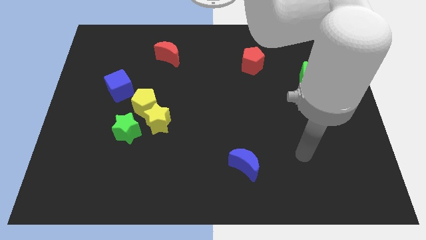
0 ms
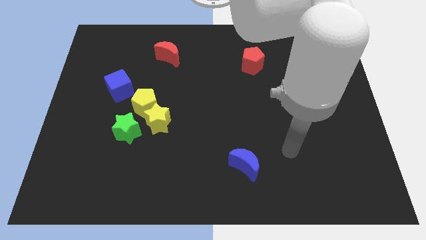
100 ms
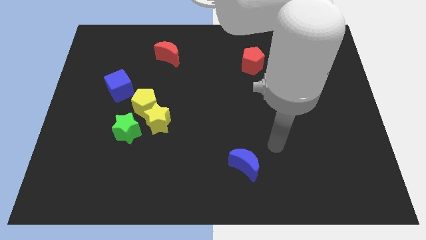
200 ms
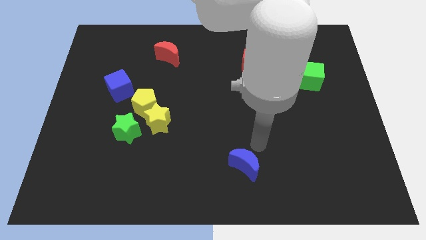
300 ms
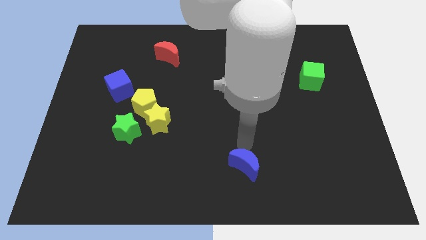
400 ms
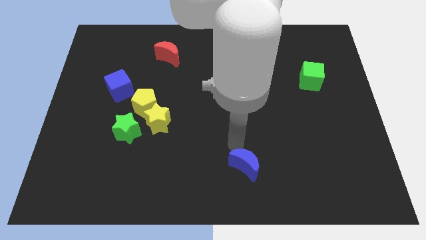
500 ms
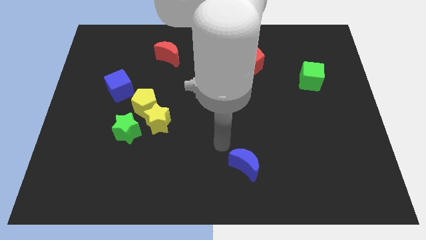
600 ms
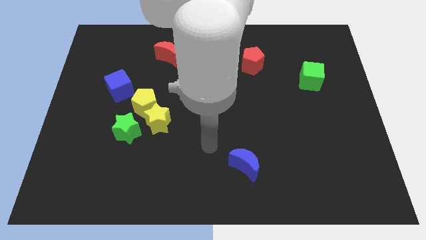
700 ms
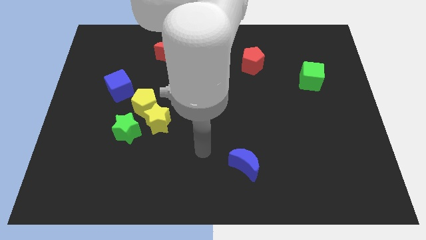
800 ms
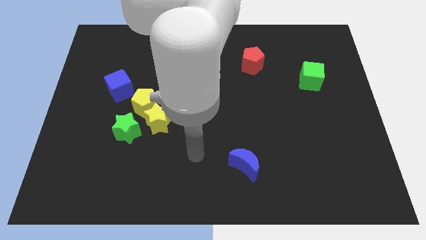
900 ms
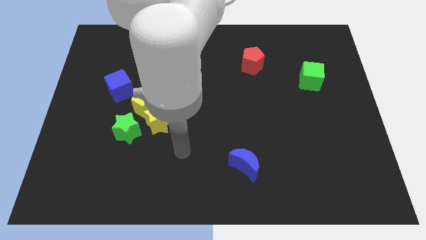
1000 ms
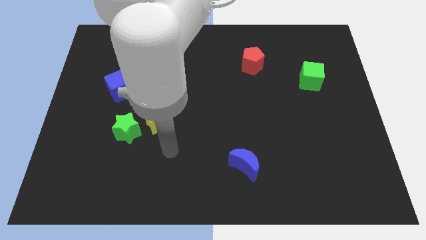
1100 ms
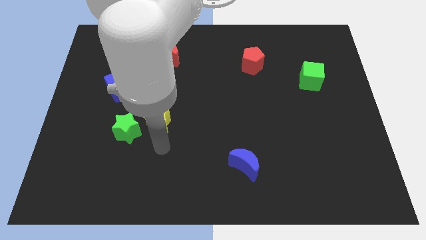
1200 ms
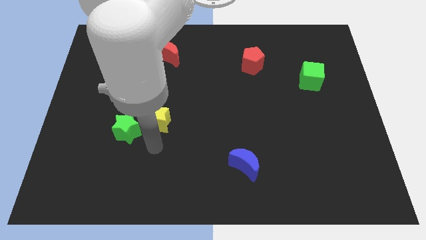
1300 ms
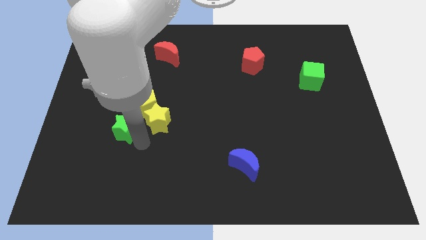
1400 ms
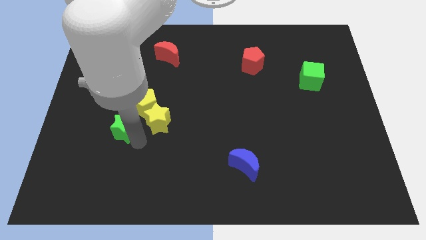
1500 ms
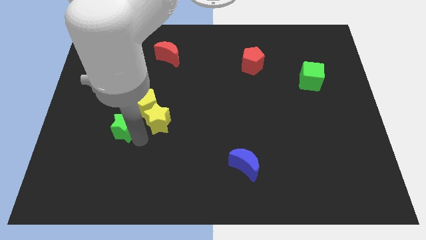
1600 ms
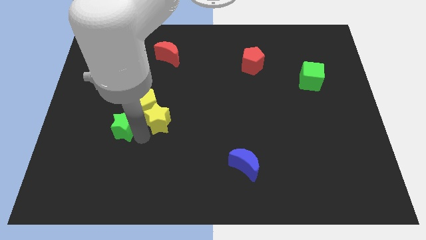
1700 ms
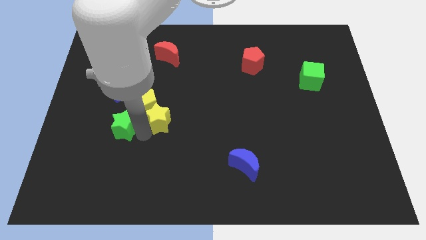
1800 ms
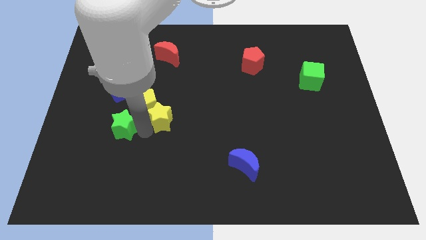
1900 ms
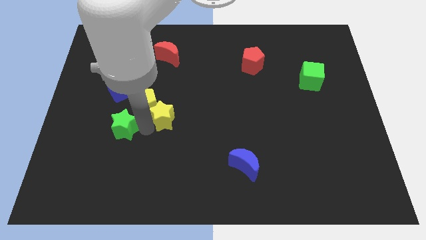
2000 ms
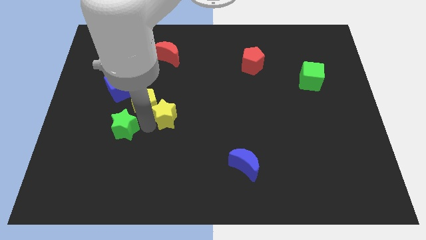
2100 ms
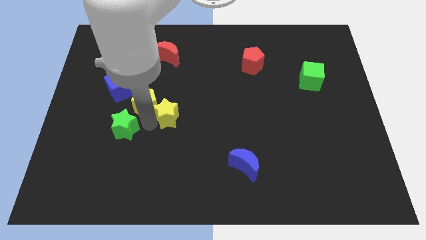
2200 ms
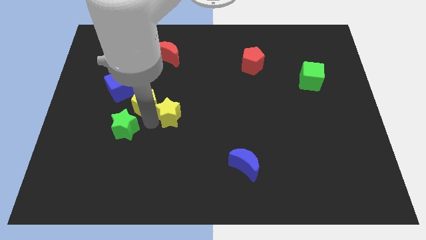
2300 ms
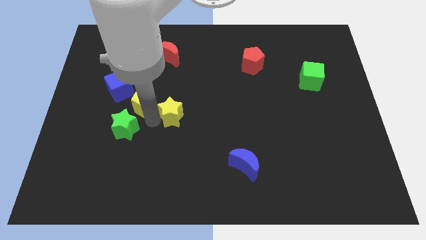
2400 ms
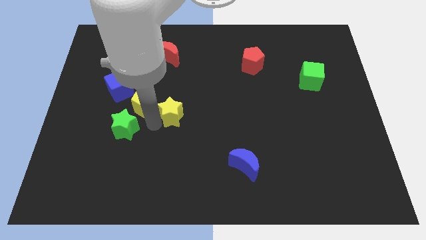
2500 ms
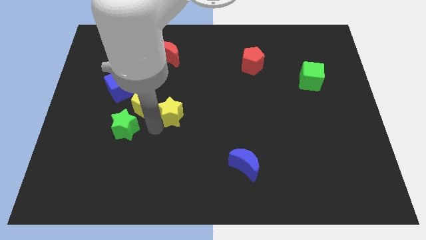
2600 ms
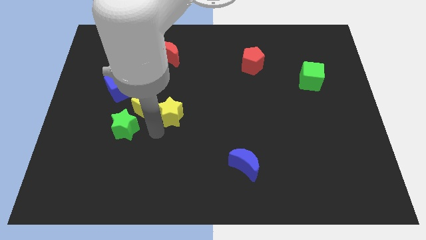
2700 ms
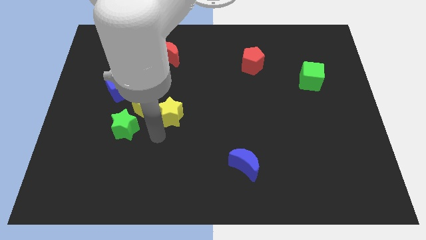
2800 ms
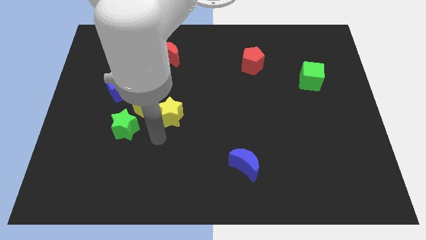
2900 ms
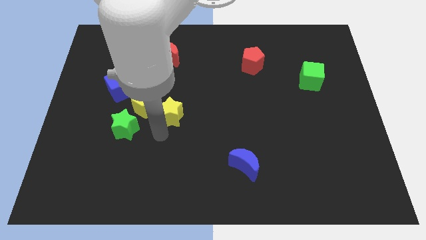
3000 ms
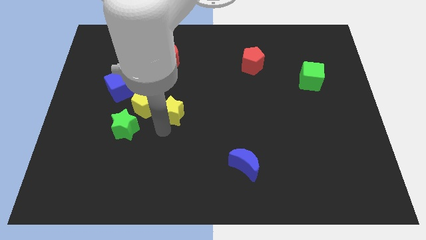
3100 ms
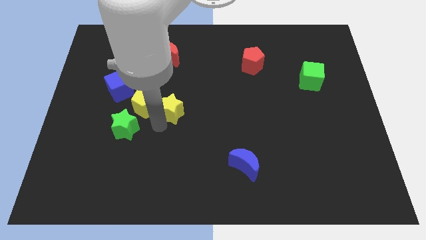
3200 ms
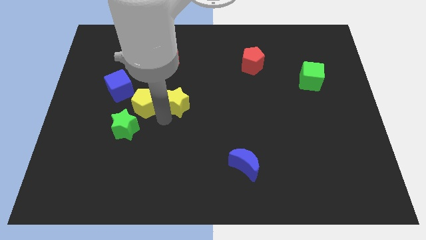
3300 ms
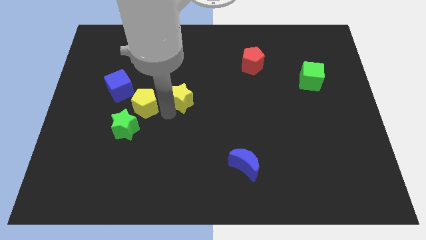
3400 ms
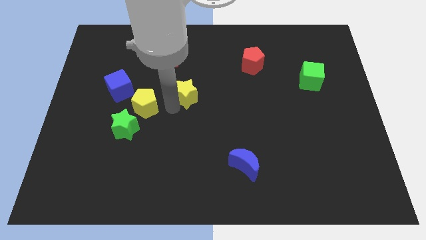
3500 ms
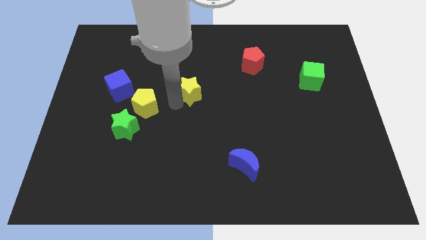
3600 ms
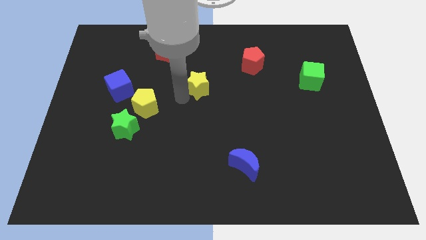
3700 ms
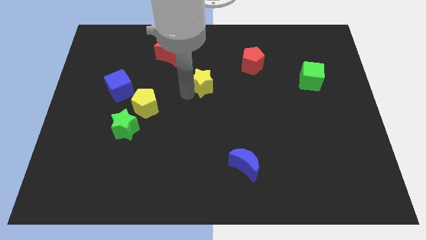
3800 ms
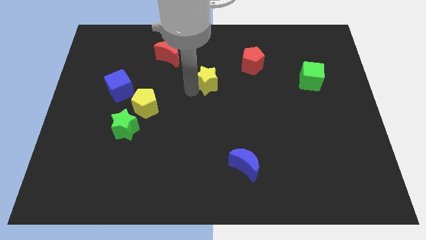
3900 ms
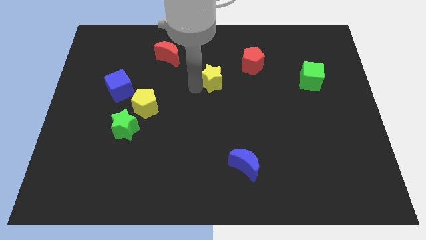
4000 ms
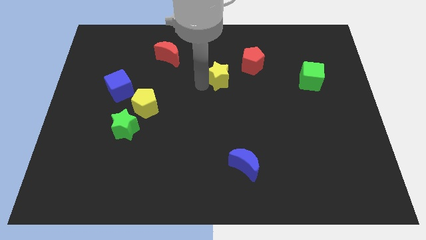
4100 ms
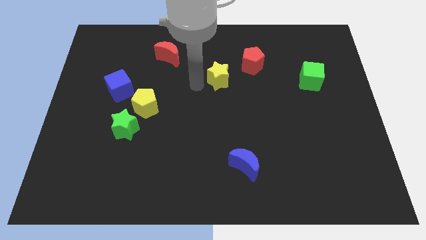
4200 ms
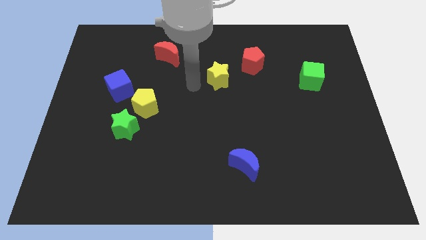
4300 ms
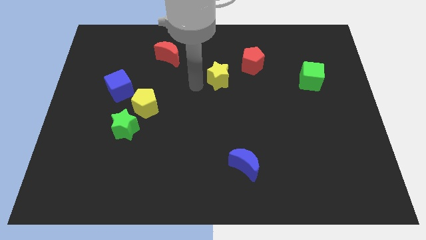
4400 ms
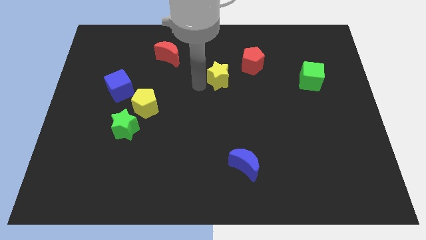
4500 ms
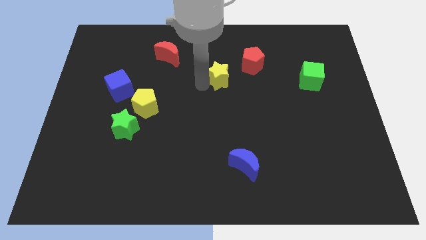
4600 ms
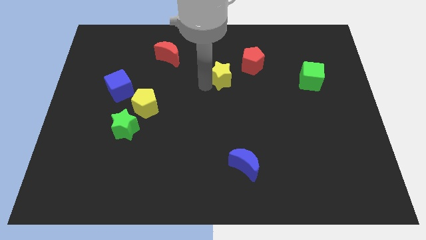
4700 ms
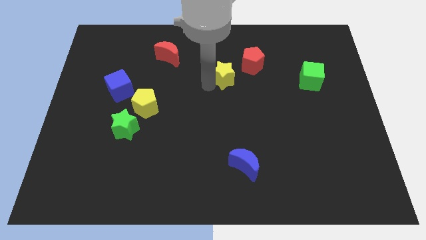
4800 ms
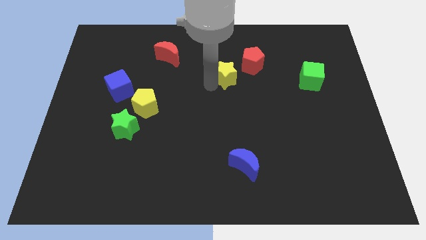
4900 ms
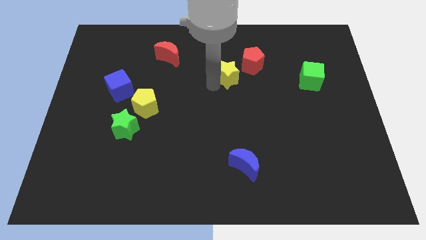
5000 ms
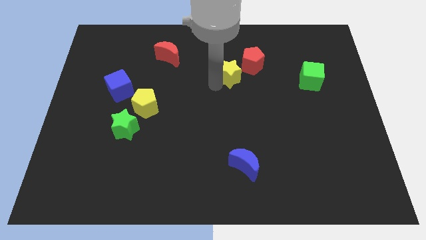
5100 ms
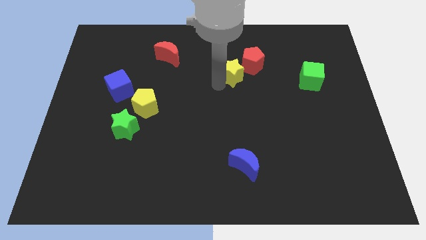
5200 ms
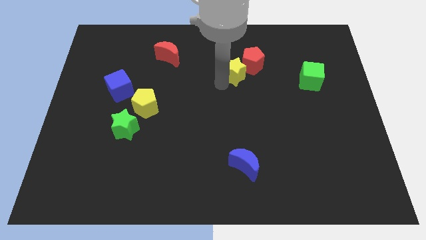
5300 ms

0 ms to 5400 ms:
move the yellow star towards the red pentagon

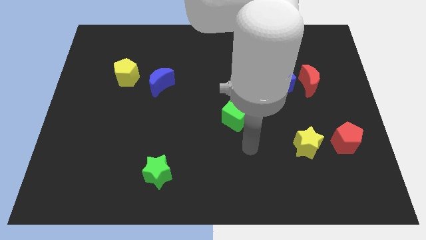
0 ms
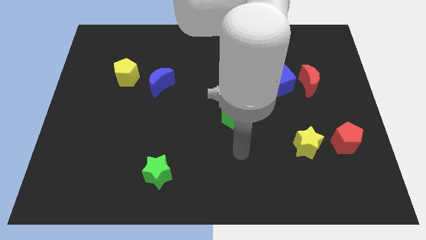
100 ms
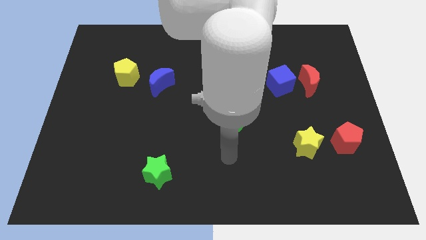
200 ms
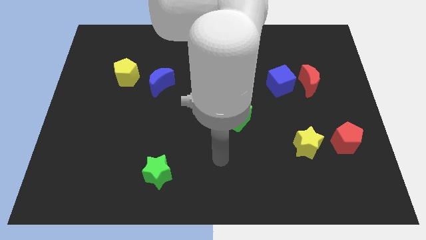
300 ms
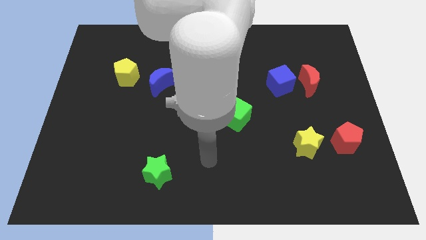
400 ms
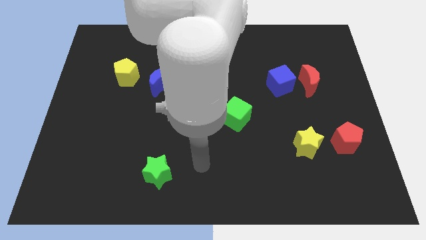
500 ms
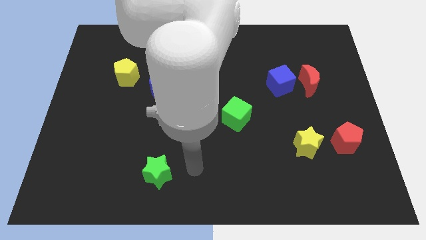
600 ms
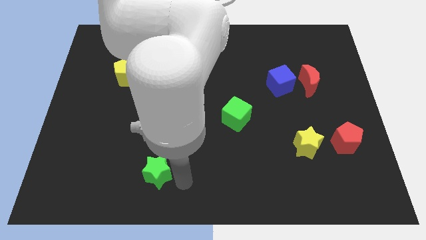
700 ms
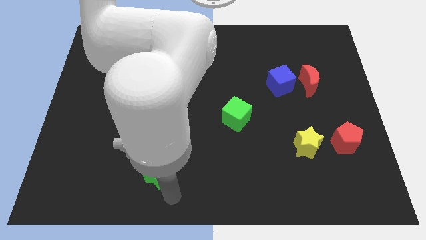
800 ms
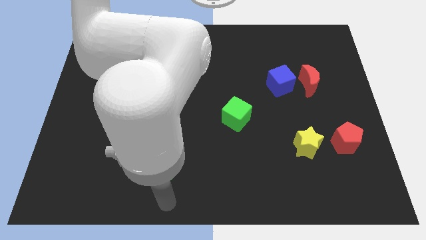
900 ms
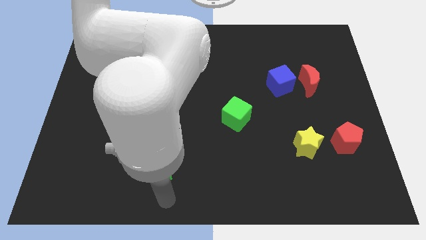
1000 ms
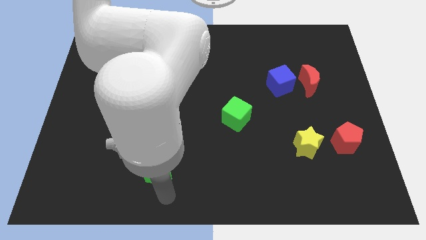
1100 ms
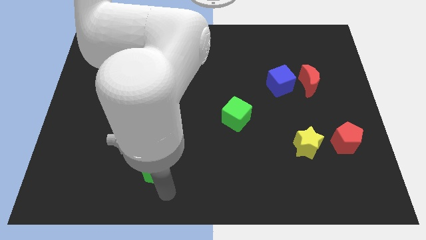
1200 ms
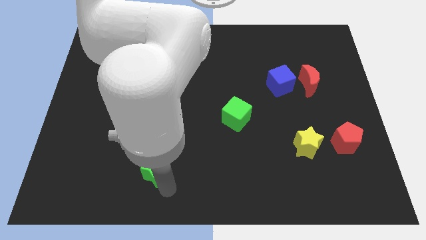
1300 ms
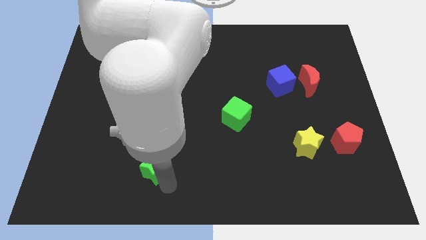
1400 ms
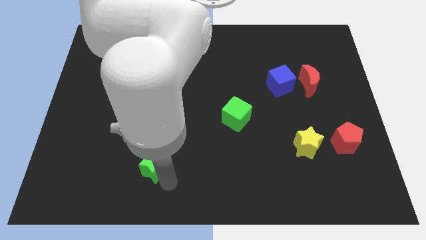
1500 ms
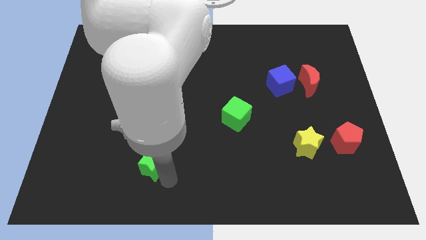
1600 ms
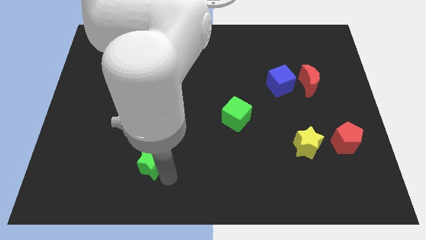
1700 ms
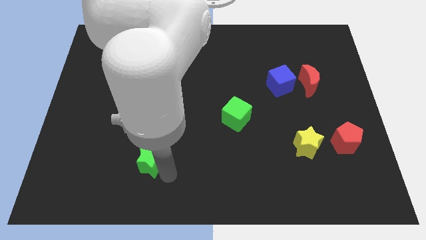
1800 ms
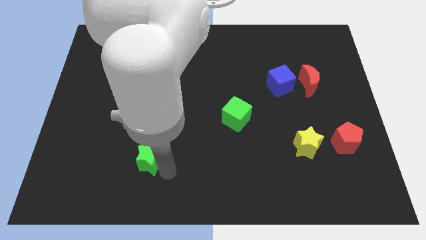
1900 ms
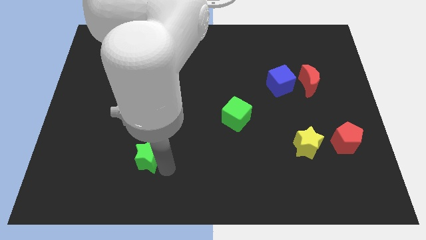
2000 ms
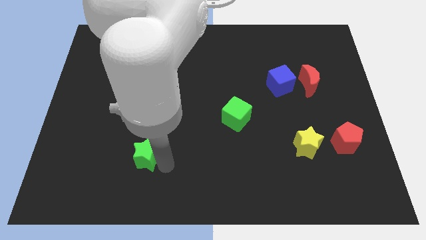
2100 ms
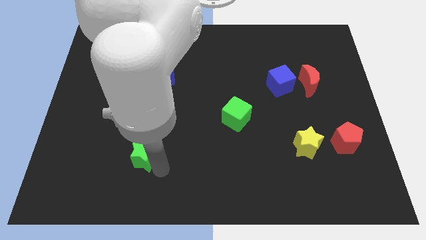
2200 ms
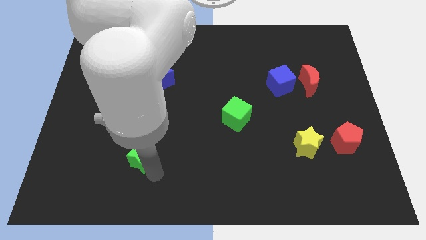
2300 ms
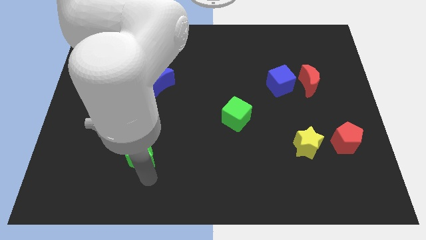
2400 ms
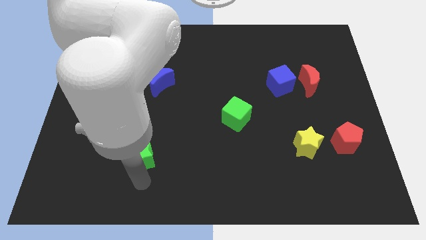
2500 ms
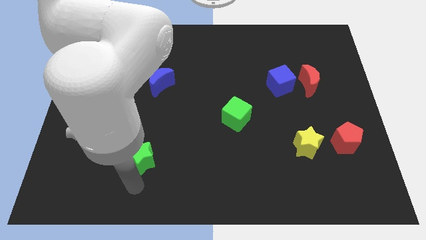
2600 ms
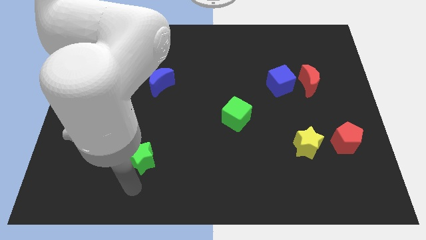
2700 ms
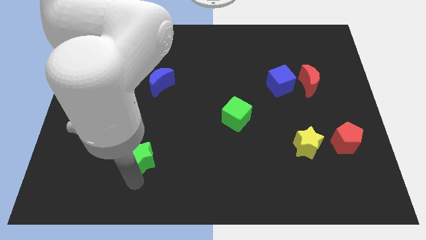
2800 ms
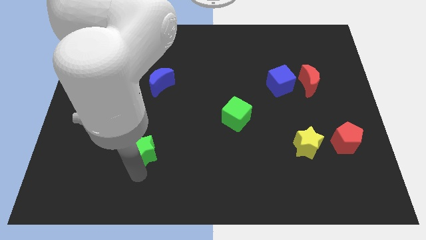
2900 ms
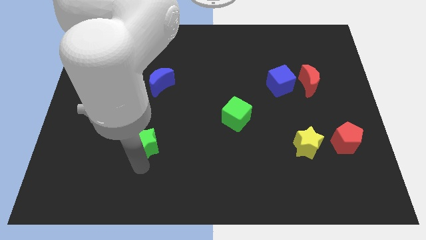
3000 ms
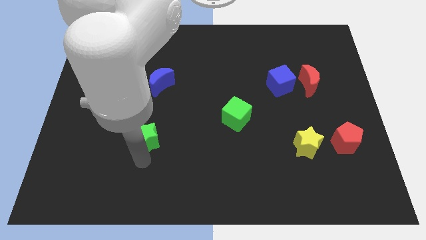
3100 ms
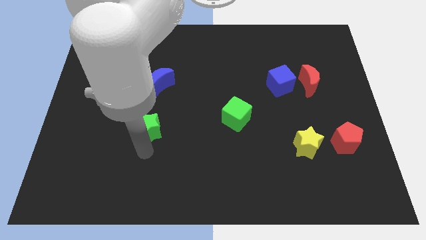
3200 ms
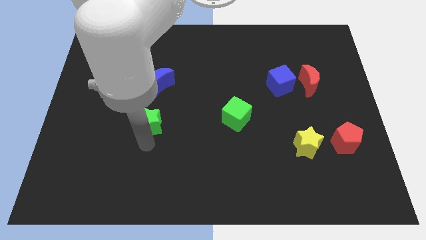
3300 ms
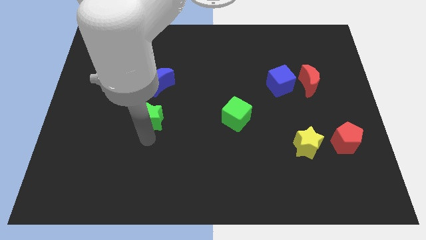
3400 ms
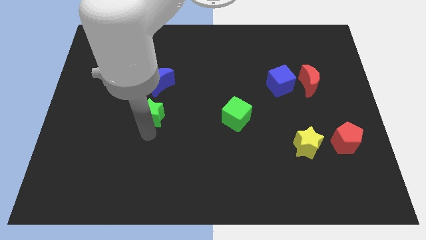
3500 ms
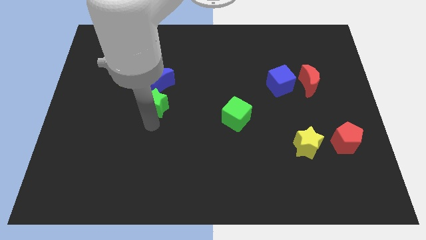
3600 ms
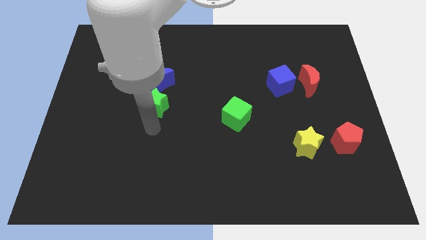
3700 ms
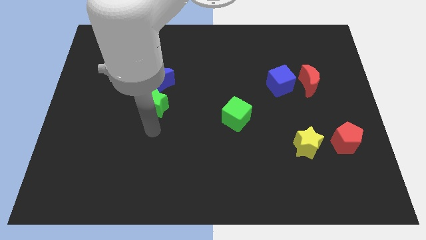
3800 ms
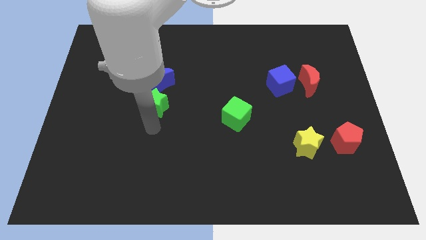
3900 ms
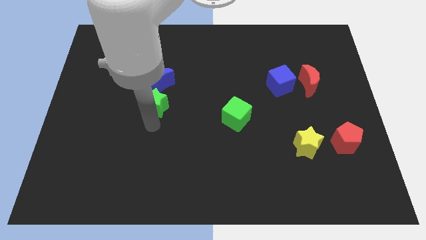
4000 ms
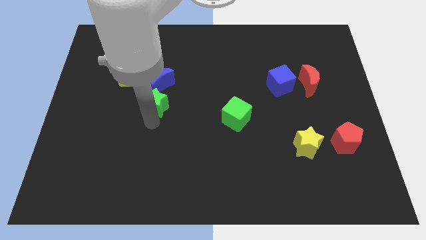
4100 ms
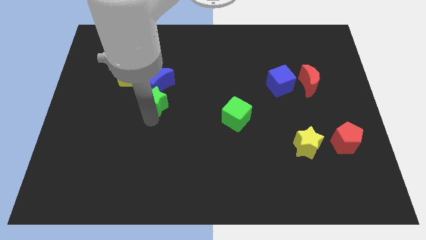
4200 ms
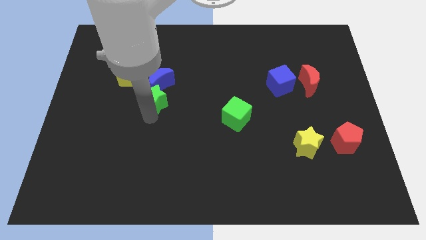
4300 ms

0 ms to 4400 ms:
put the green star close to the blue moon
